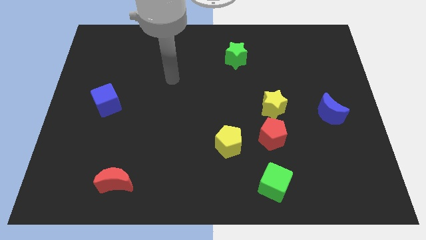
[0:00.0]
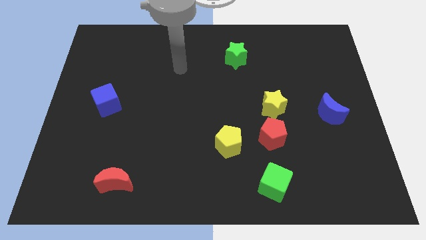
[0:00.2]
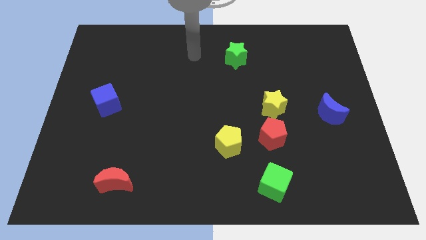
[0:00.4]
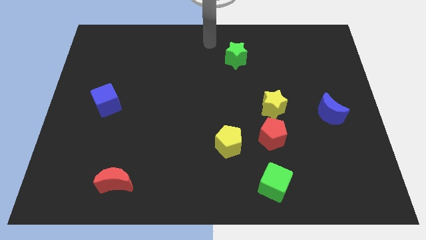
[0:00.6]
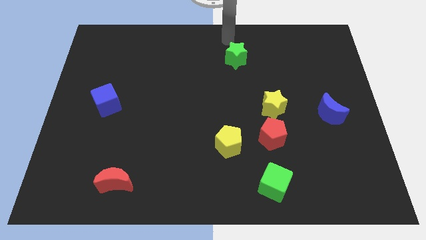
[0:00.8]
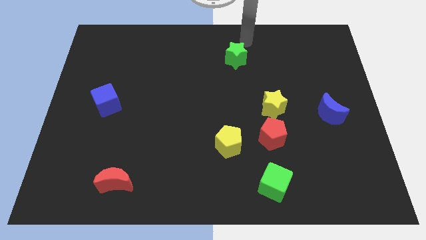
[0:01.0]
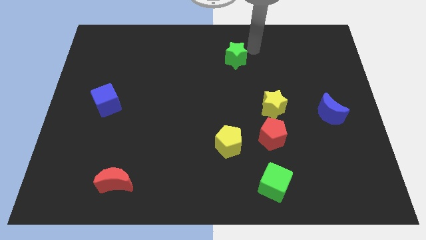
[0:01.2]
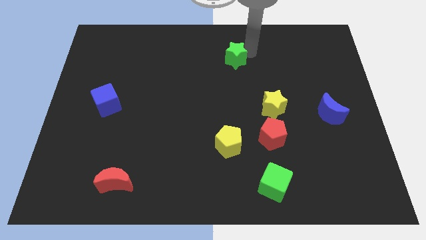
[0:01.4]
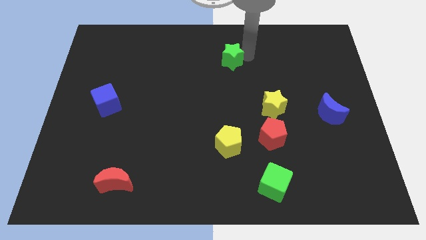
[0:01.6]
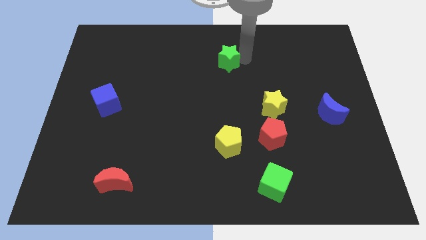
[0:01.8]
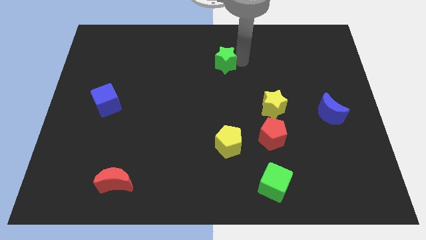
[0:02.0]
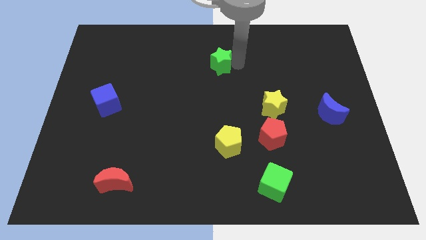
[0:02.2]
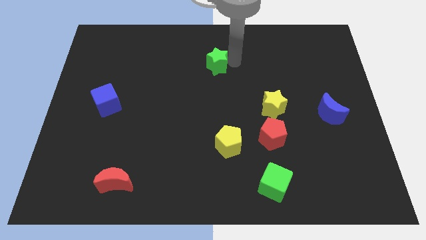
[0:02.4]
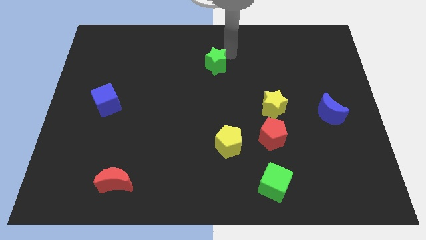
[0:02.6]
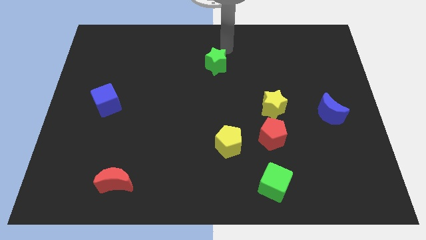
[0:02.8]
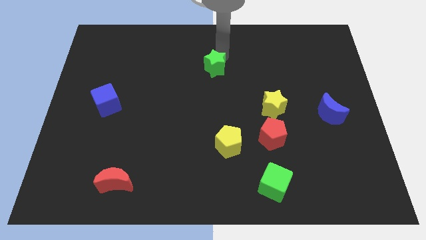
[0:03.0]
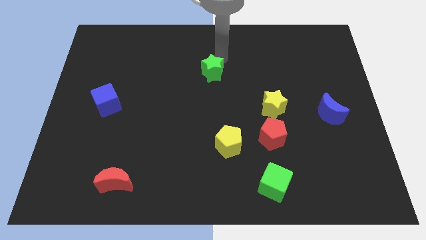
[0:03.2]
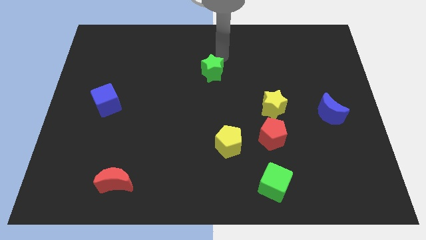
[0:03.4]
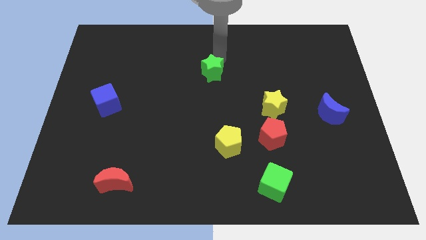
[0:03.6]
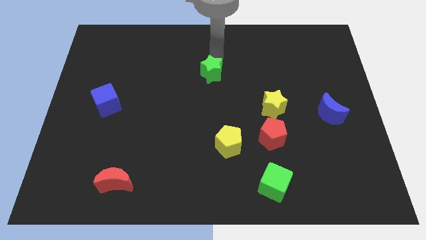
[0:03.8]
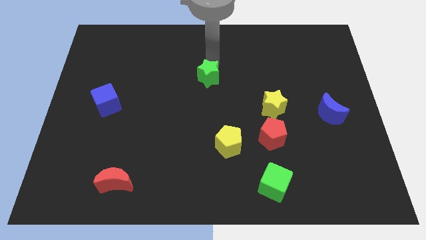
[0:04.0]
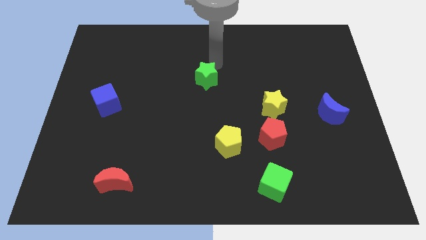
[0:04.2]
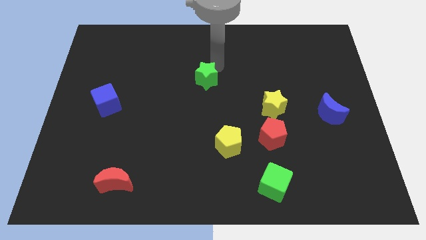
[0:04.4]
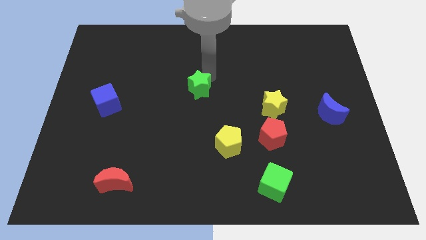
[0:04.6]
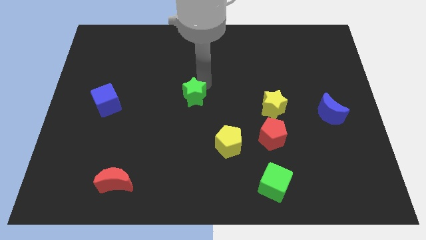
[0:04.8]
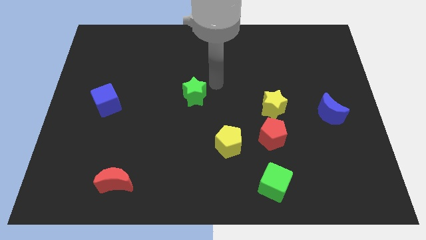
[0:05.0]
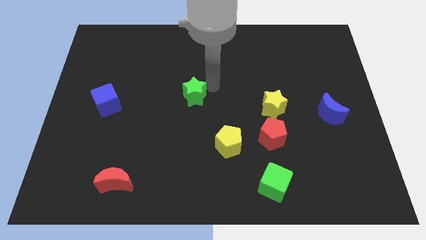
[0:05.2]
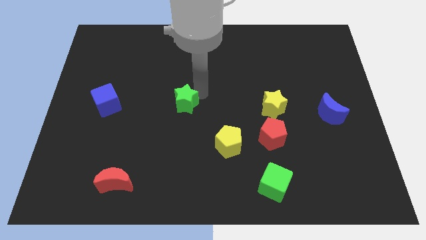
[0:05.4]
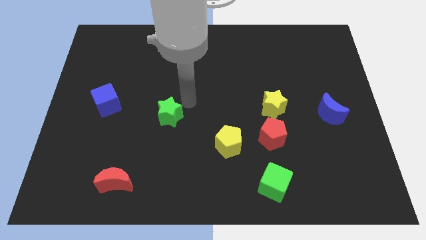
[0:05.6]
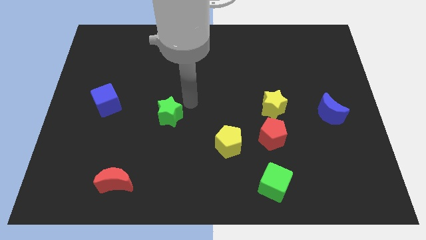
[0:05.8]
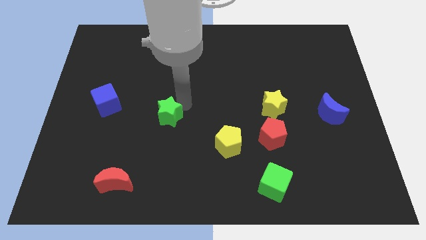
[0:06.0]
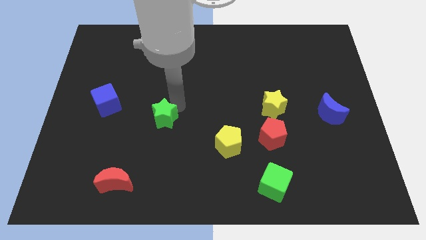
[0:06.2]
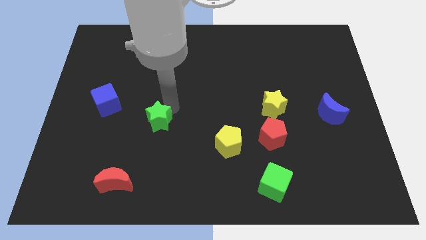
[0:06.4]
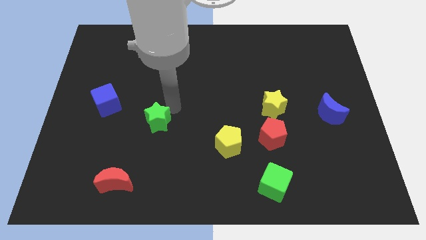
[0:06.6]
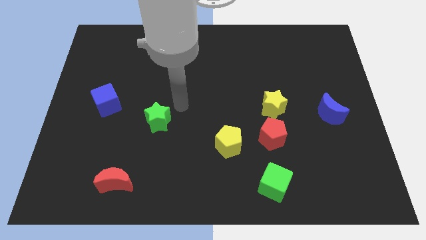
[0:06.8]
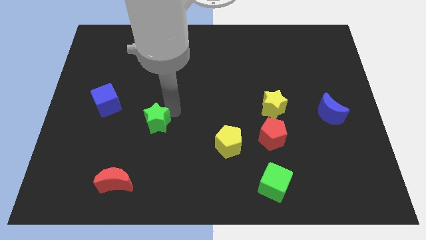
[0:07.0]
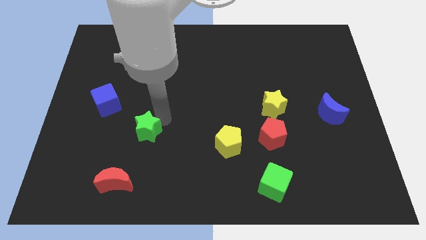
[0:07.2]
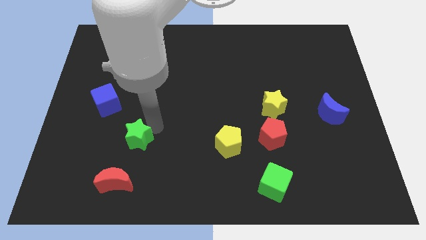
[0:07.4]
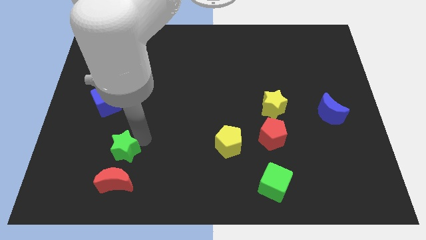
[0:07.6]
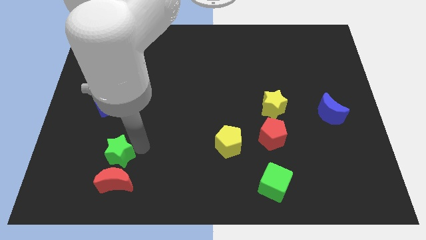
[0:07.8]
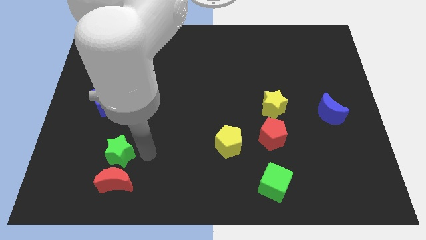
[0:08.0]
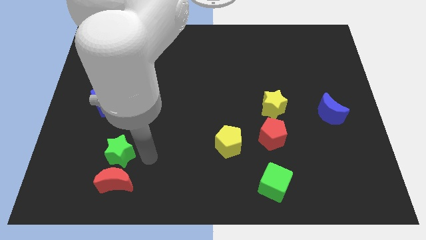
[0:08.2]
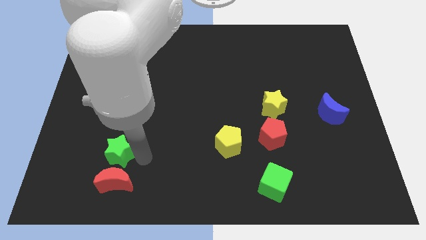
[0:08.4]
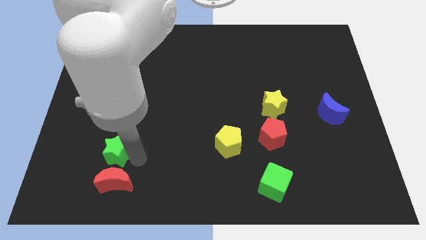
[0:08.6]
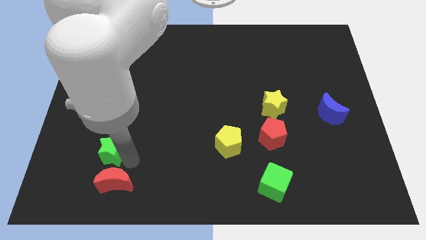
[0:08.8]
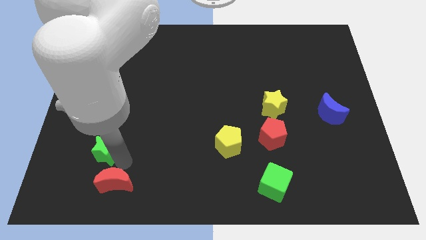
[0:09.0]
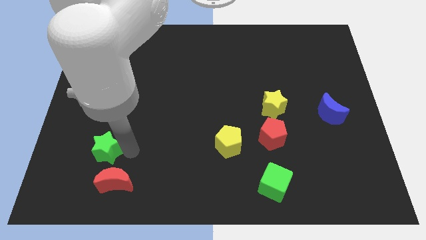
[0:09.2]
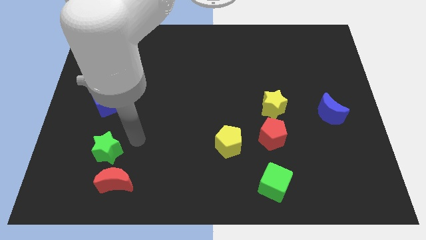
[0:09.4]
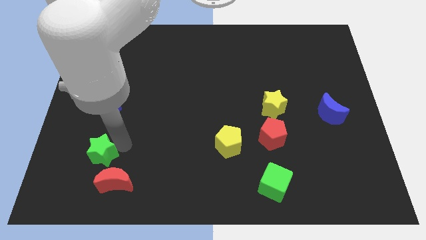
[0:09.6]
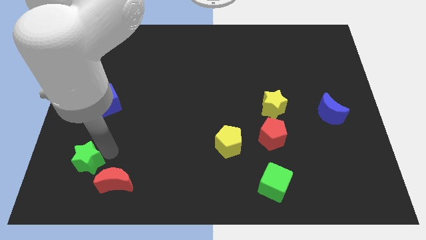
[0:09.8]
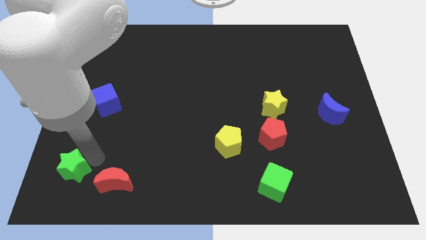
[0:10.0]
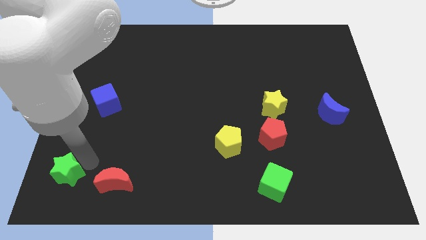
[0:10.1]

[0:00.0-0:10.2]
put the green star to the bottom left

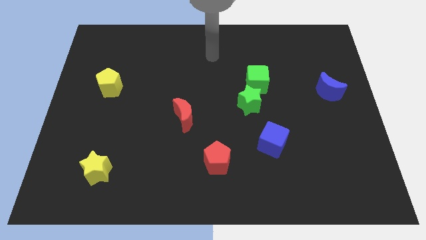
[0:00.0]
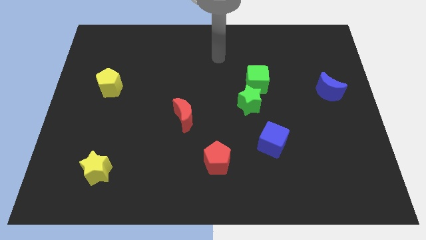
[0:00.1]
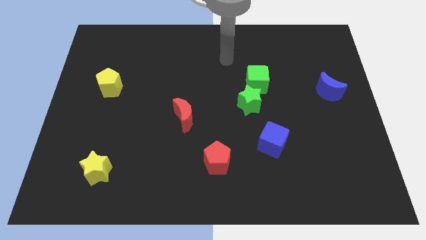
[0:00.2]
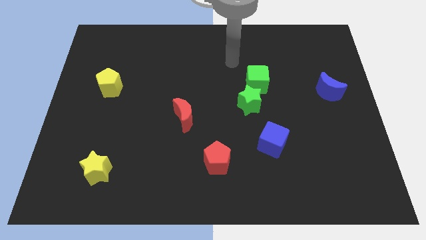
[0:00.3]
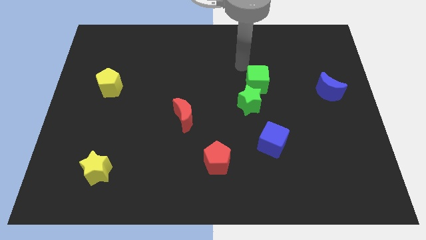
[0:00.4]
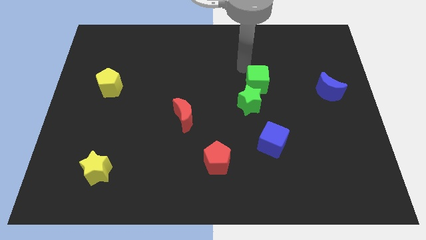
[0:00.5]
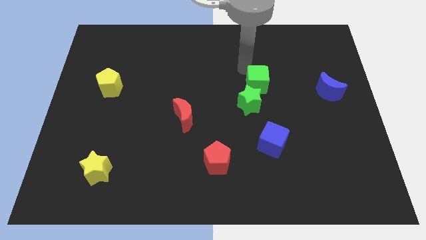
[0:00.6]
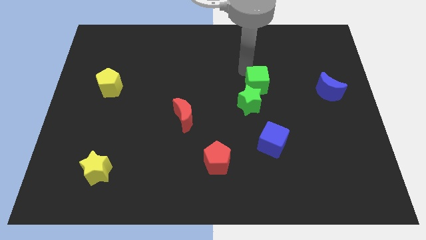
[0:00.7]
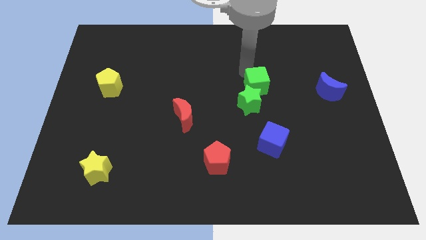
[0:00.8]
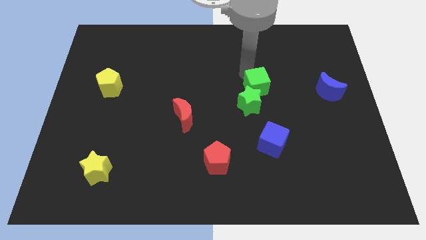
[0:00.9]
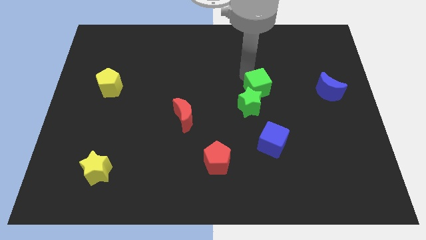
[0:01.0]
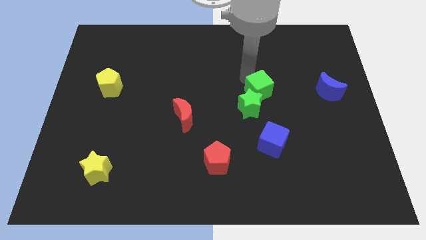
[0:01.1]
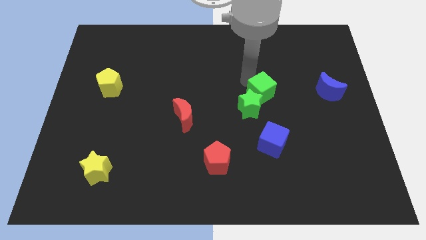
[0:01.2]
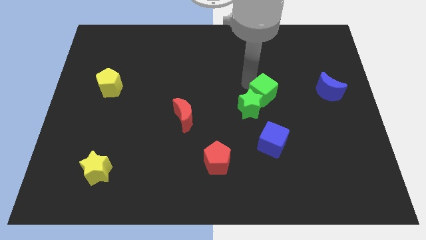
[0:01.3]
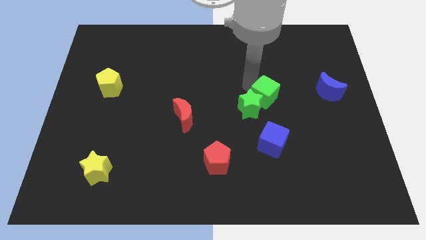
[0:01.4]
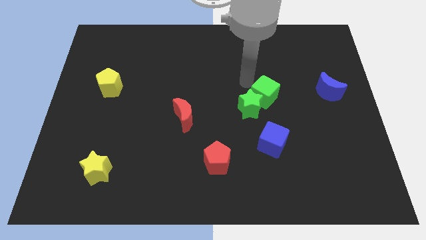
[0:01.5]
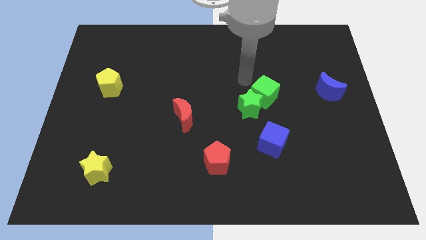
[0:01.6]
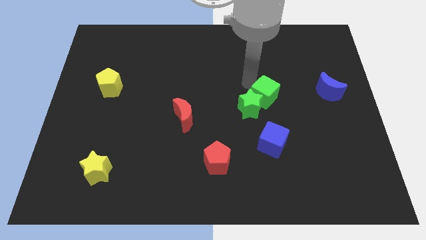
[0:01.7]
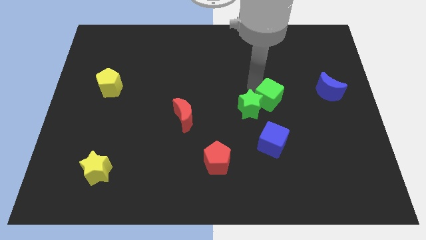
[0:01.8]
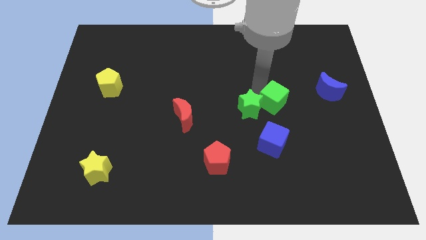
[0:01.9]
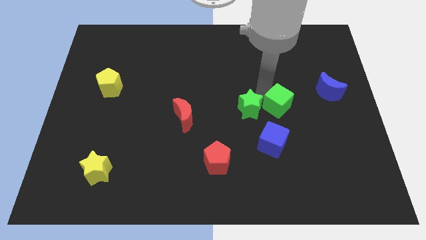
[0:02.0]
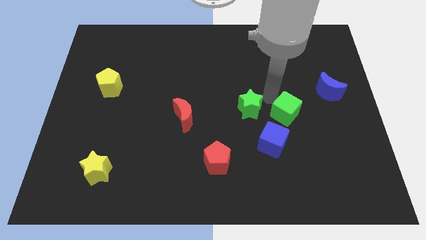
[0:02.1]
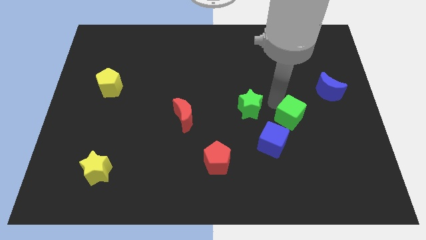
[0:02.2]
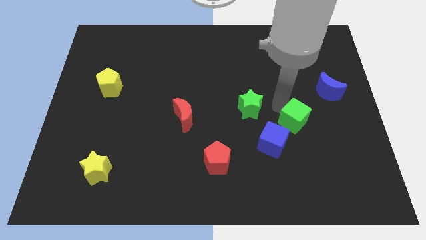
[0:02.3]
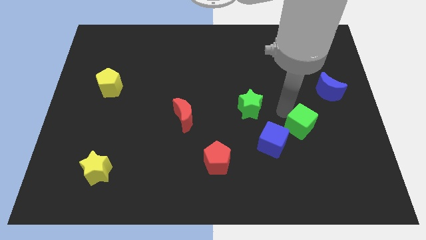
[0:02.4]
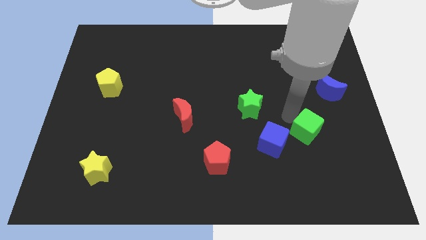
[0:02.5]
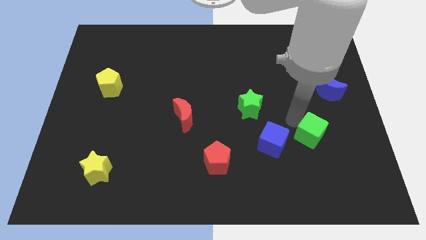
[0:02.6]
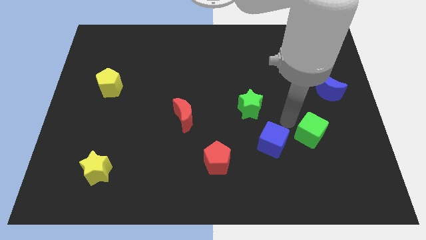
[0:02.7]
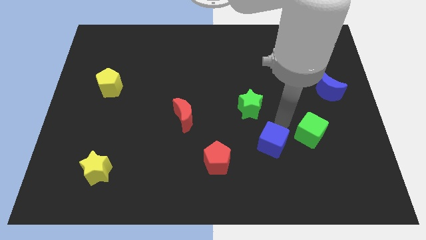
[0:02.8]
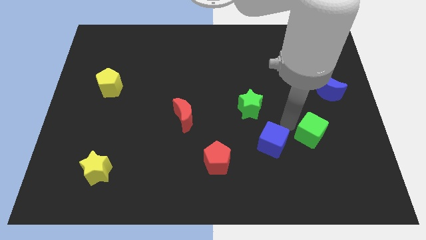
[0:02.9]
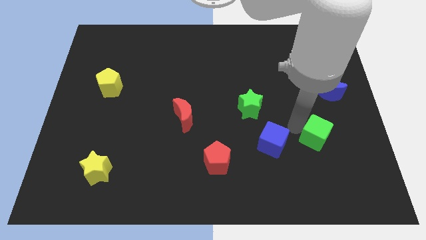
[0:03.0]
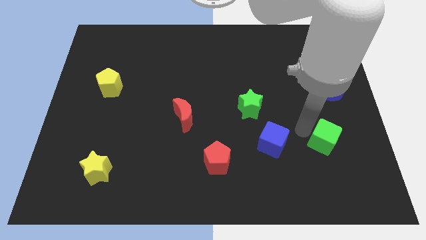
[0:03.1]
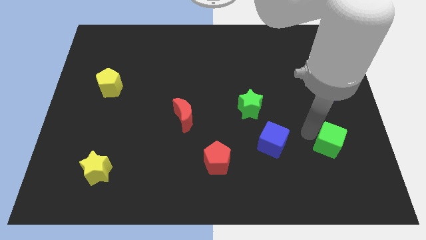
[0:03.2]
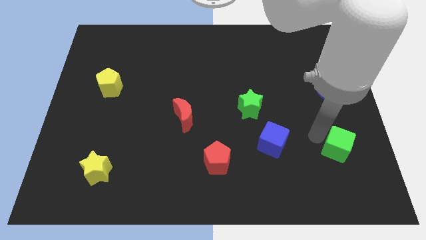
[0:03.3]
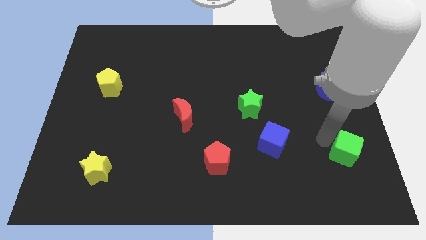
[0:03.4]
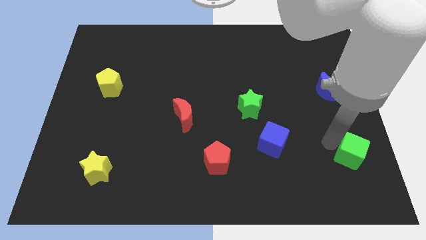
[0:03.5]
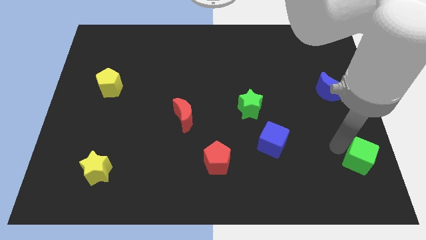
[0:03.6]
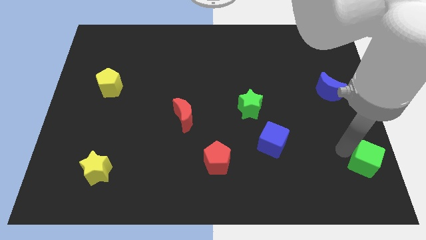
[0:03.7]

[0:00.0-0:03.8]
put the green cube to the bottom right
